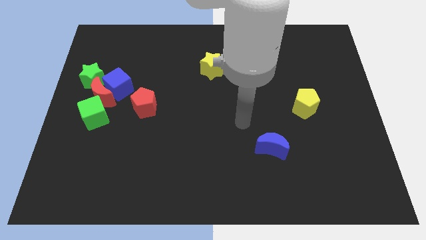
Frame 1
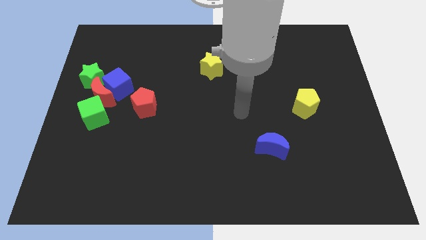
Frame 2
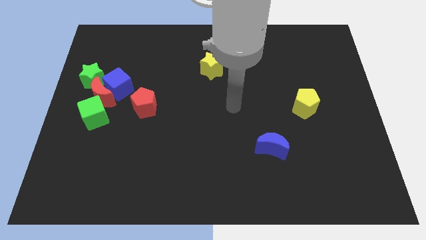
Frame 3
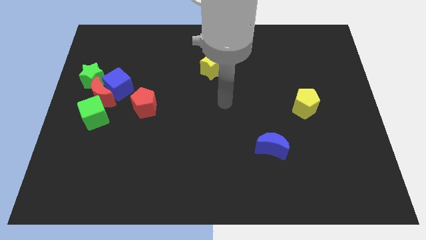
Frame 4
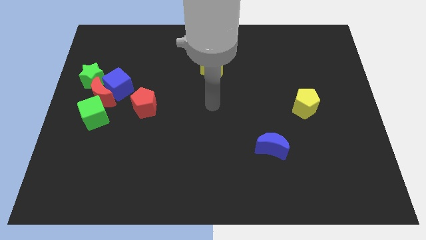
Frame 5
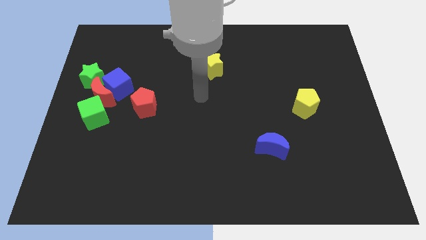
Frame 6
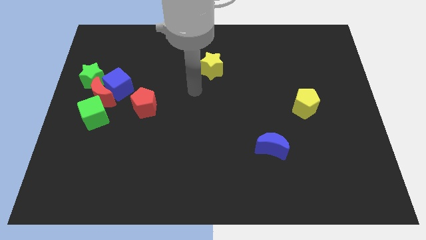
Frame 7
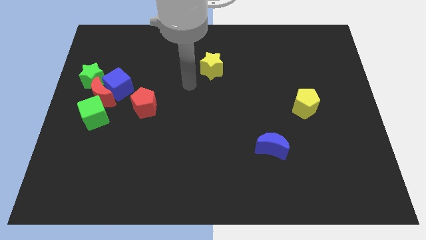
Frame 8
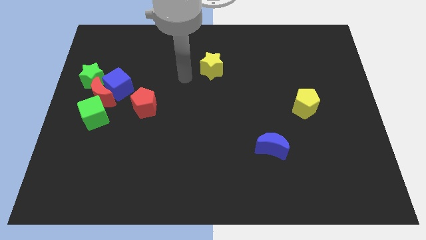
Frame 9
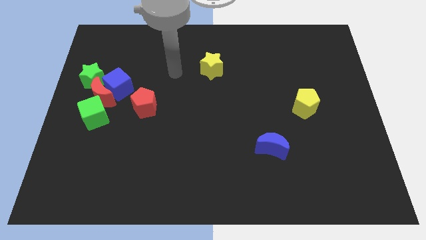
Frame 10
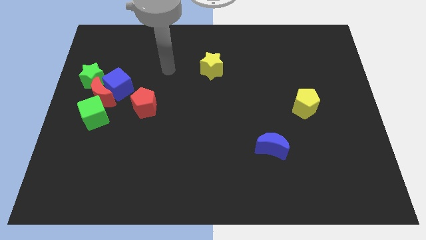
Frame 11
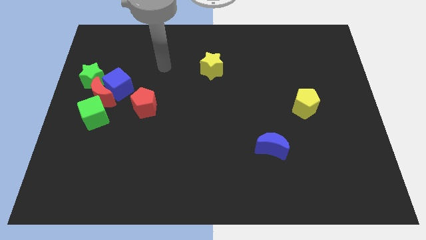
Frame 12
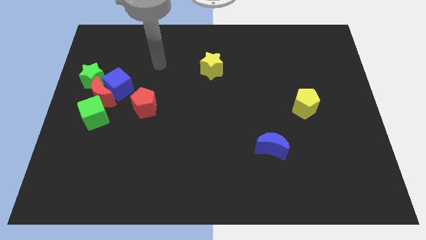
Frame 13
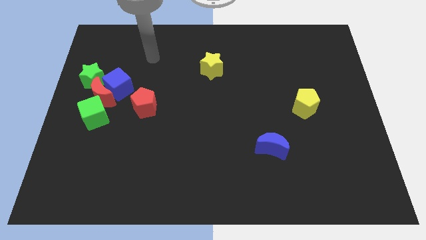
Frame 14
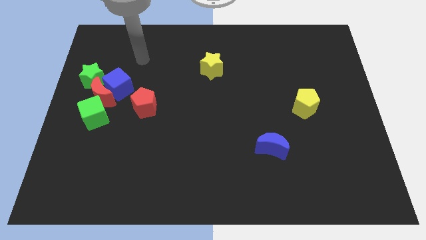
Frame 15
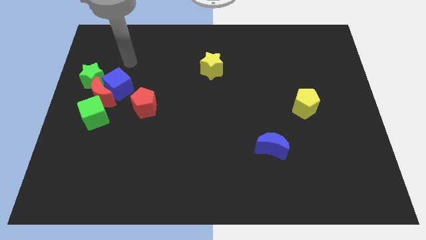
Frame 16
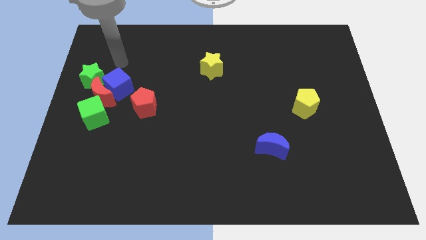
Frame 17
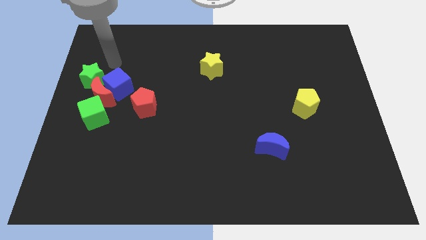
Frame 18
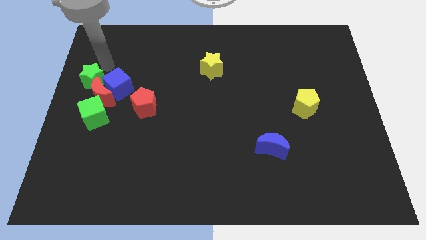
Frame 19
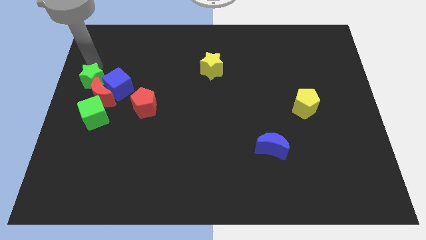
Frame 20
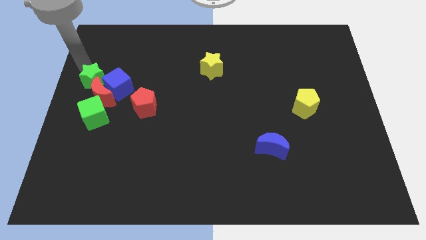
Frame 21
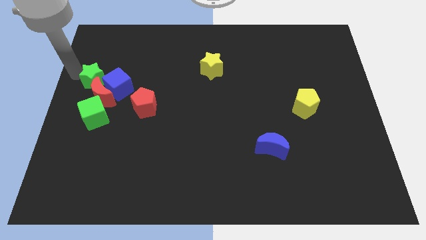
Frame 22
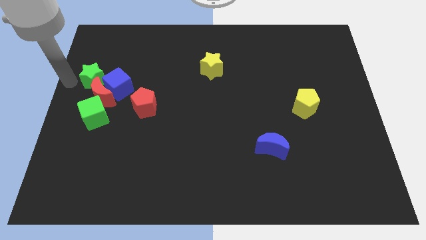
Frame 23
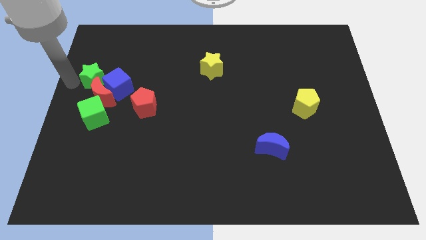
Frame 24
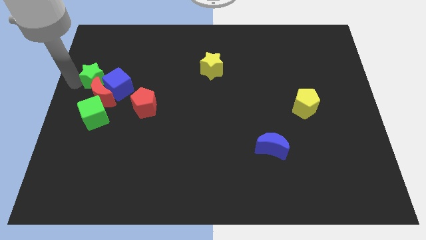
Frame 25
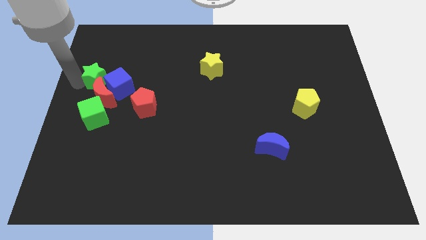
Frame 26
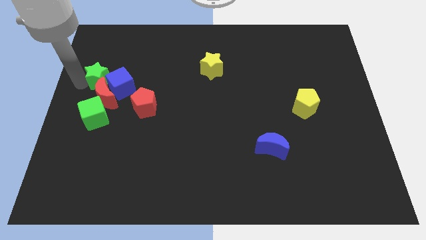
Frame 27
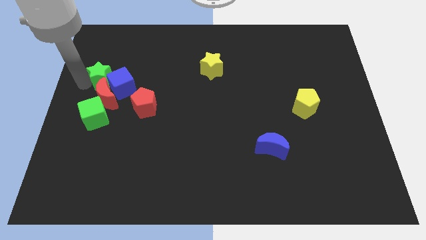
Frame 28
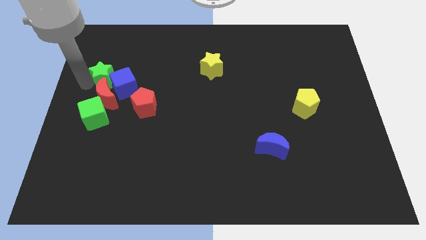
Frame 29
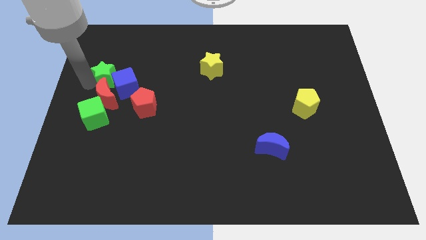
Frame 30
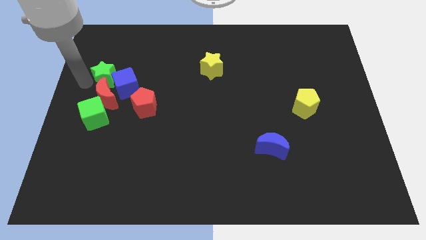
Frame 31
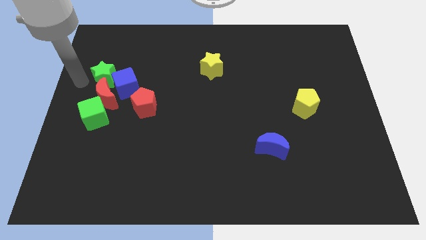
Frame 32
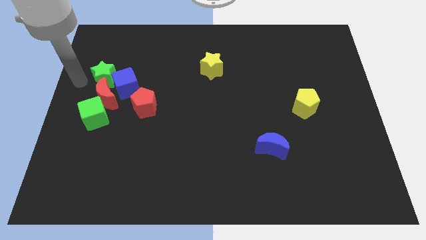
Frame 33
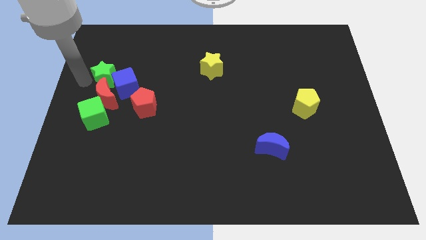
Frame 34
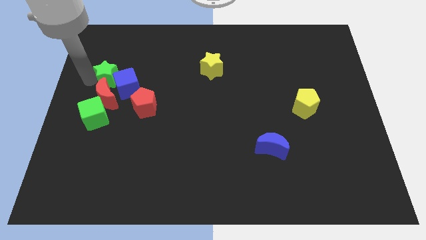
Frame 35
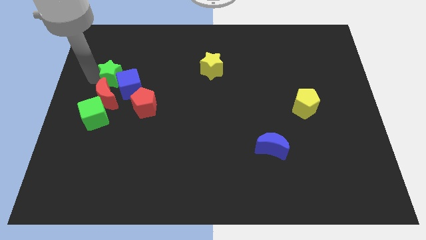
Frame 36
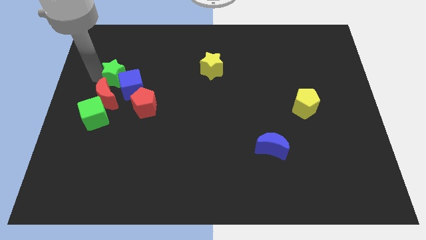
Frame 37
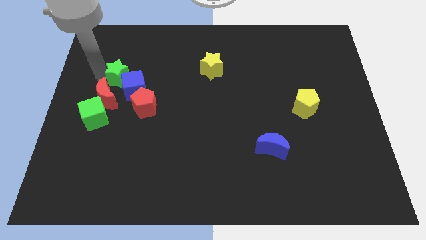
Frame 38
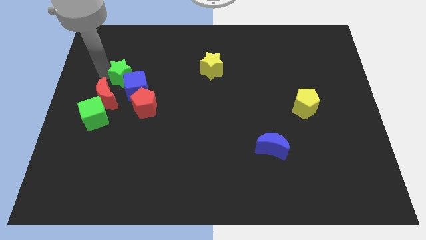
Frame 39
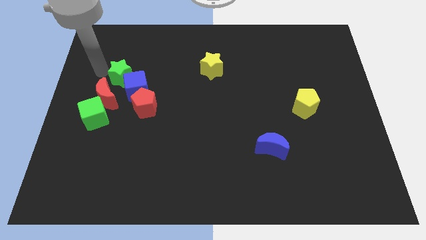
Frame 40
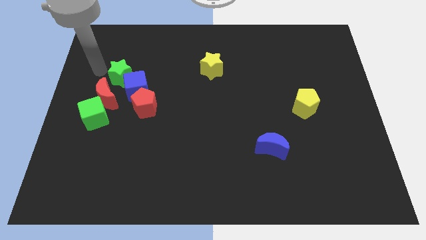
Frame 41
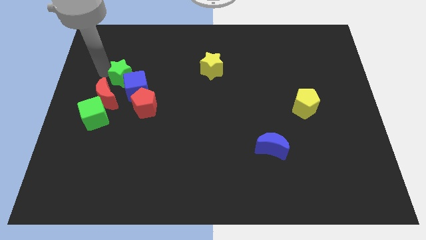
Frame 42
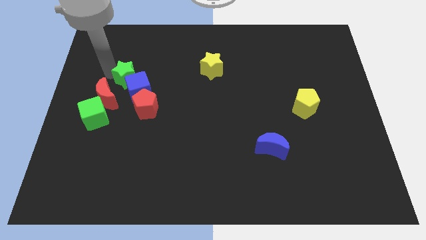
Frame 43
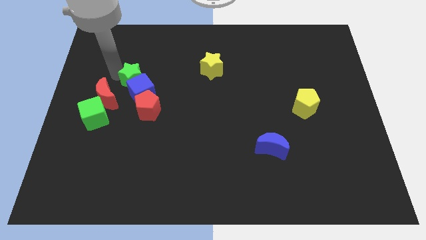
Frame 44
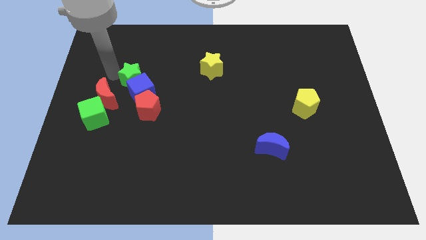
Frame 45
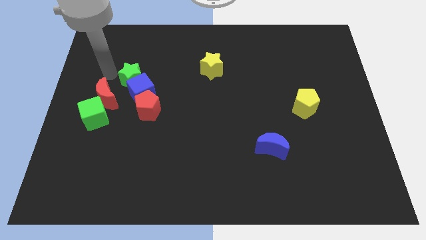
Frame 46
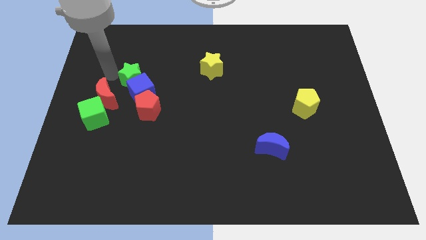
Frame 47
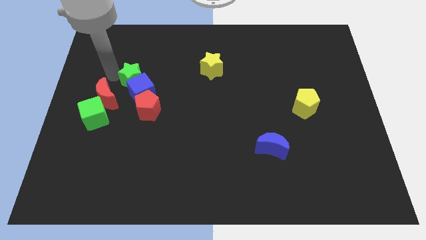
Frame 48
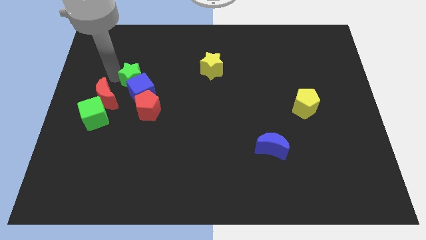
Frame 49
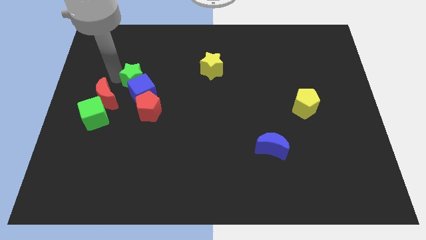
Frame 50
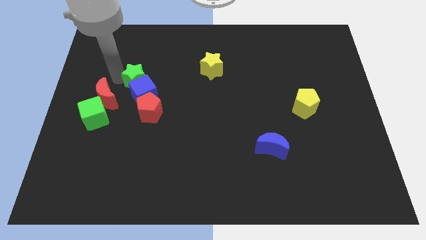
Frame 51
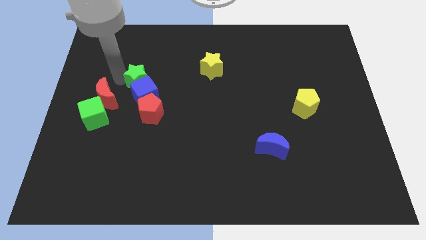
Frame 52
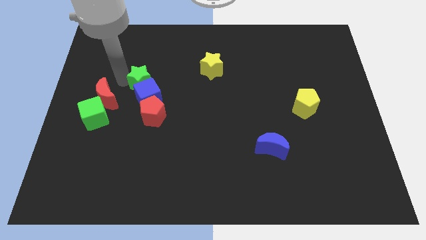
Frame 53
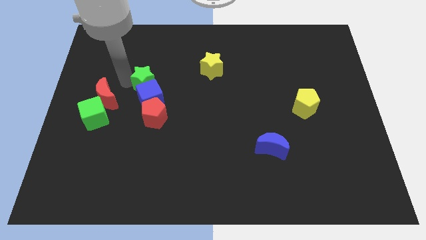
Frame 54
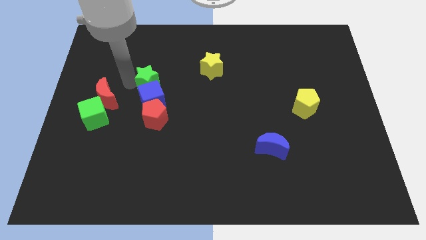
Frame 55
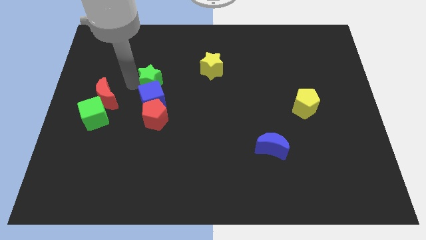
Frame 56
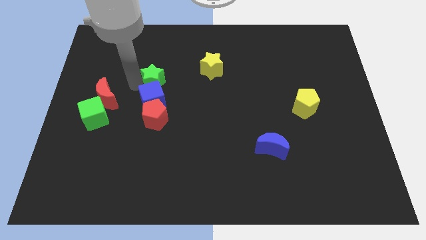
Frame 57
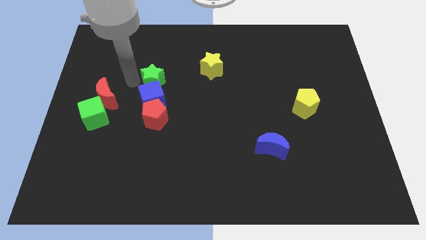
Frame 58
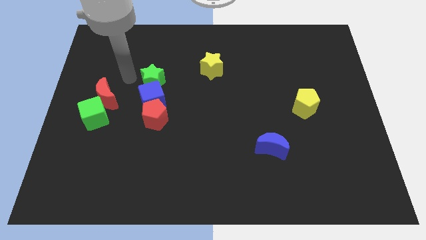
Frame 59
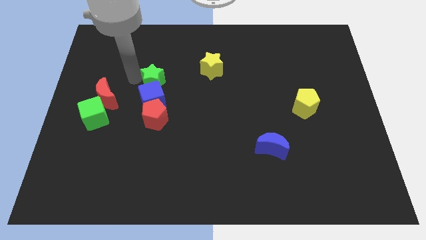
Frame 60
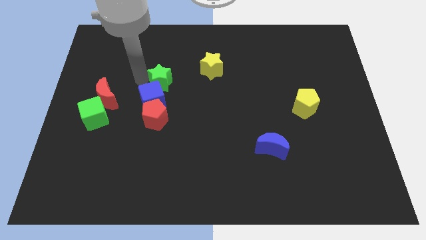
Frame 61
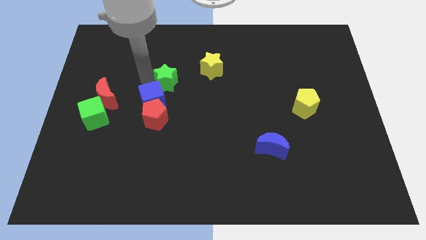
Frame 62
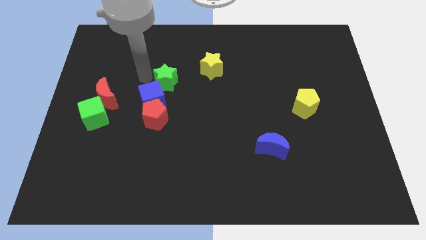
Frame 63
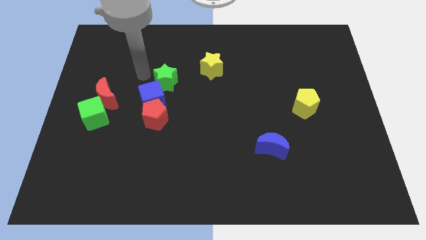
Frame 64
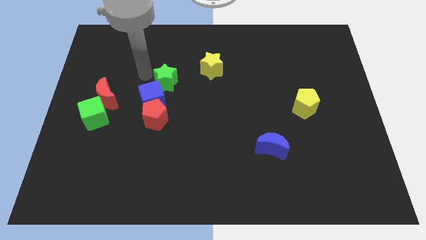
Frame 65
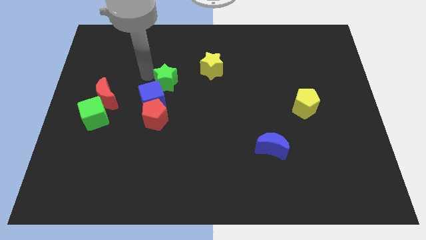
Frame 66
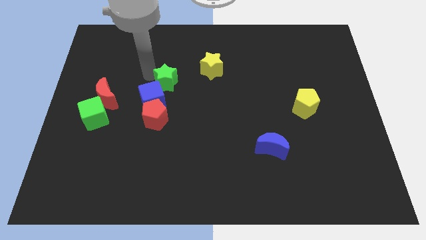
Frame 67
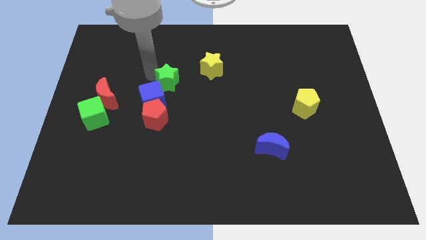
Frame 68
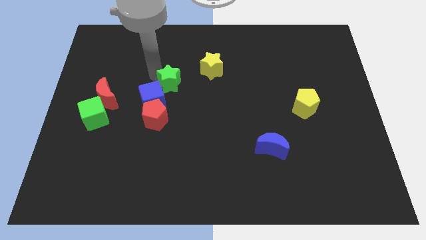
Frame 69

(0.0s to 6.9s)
put the green star to the center

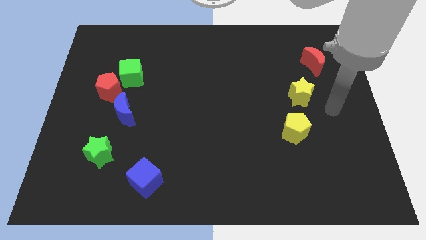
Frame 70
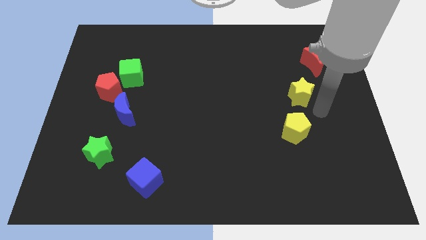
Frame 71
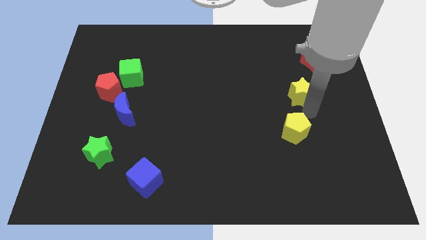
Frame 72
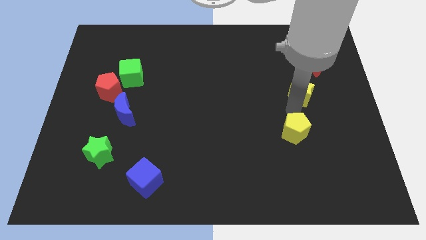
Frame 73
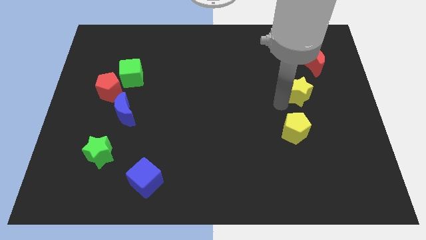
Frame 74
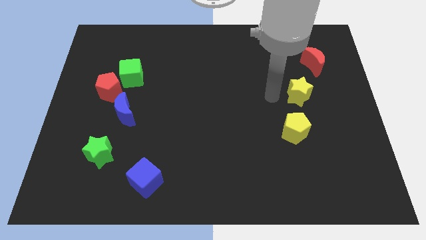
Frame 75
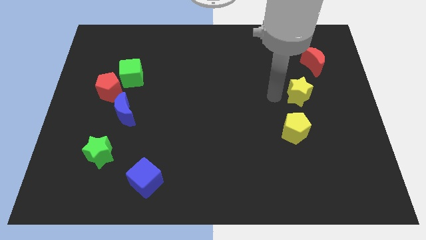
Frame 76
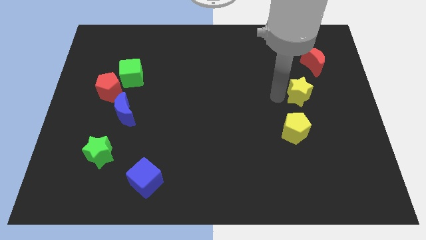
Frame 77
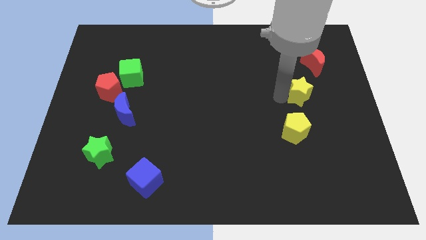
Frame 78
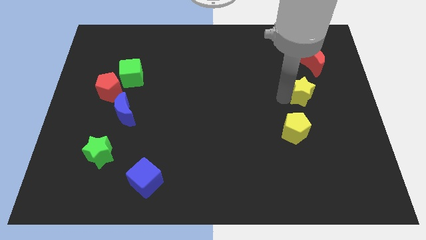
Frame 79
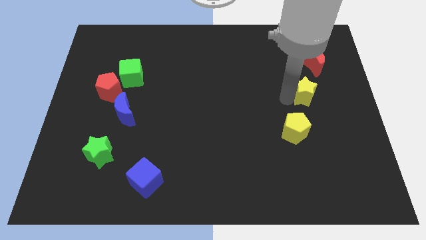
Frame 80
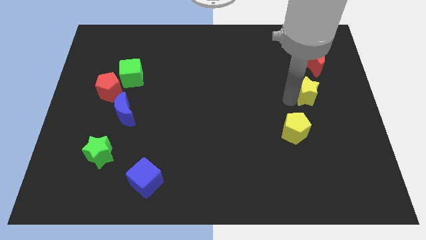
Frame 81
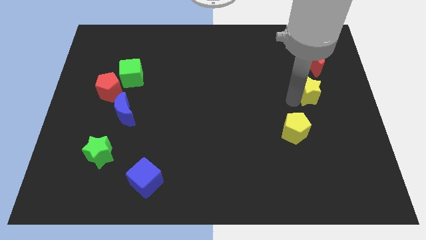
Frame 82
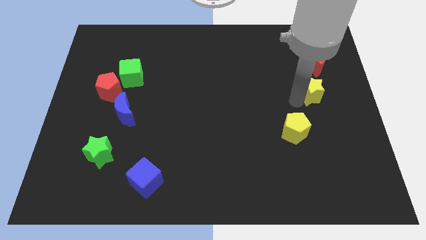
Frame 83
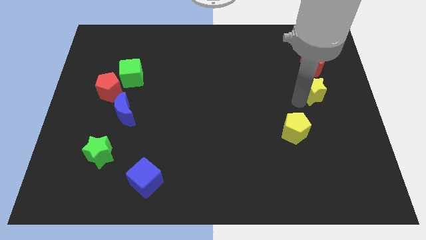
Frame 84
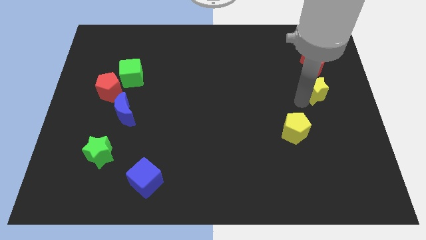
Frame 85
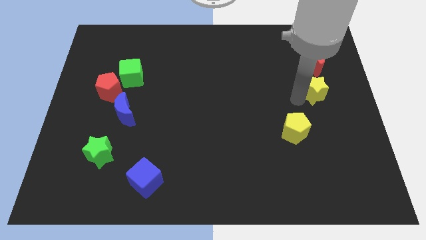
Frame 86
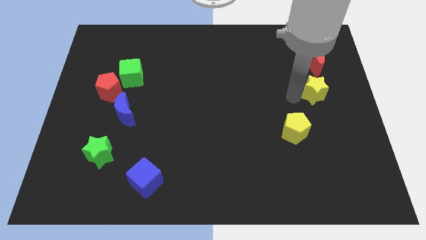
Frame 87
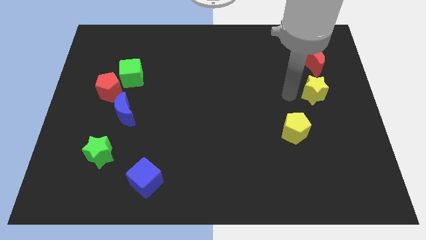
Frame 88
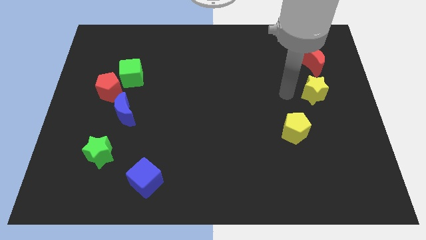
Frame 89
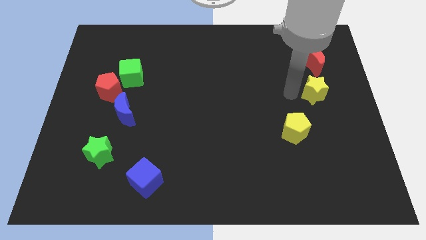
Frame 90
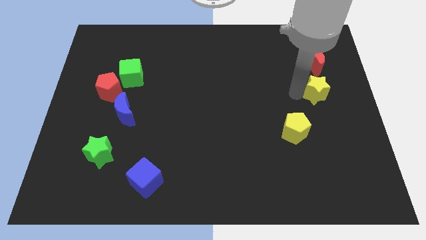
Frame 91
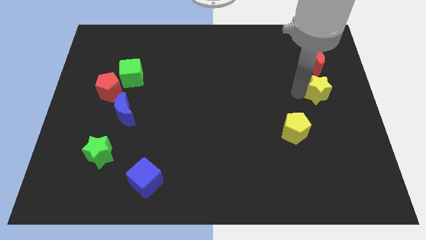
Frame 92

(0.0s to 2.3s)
push the yellow star to the right side of the board
